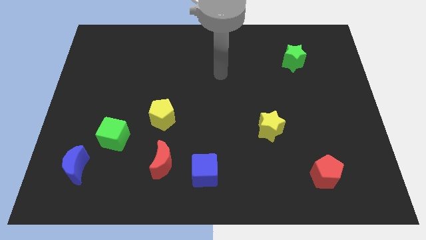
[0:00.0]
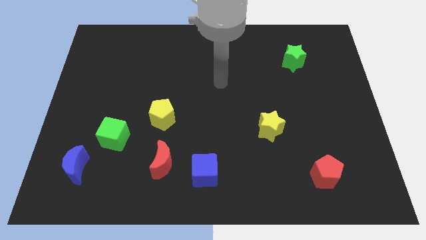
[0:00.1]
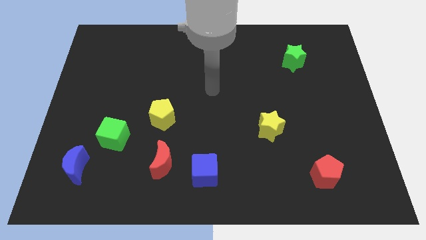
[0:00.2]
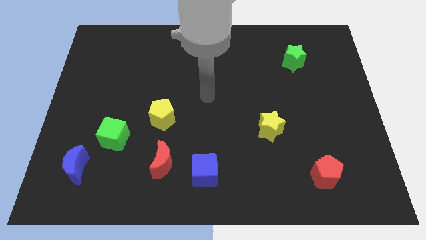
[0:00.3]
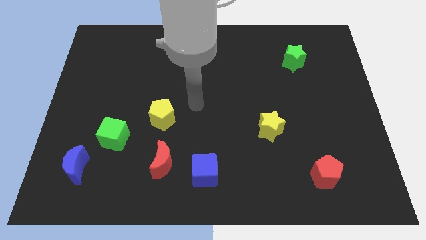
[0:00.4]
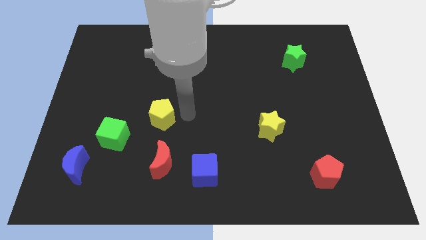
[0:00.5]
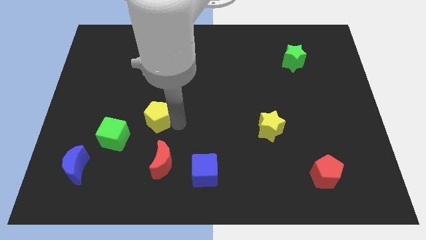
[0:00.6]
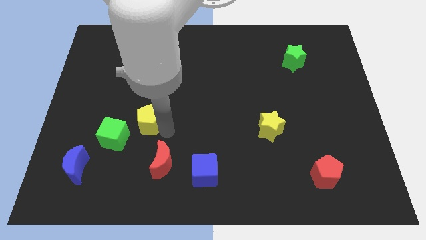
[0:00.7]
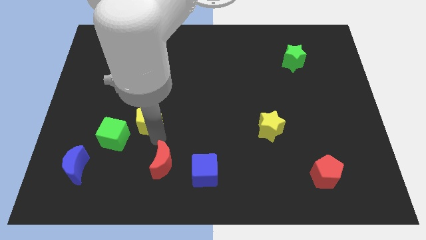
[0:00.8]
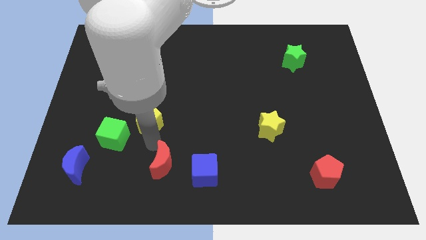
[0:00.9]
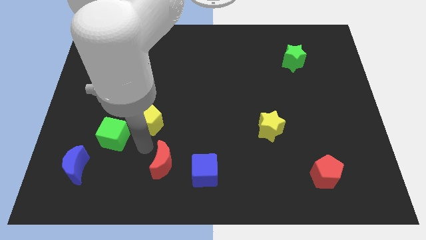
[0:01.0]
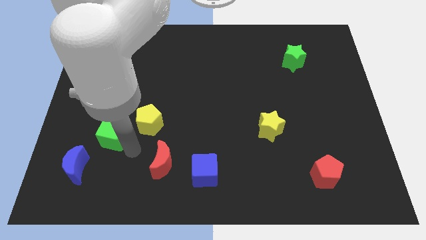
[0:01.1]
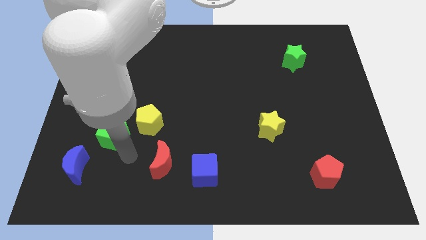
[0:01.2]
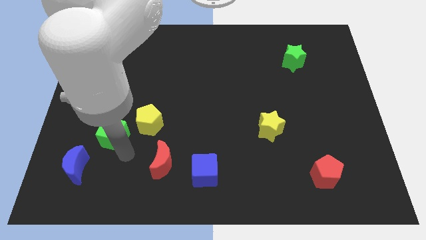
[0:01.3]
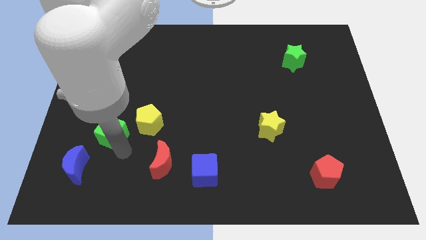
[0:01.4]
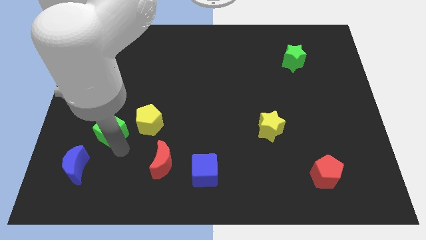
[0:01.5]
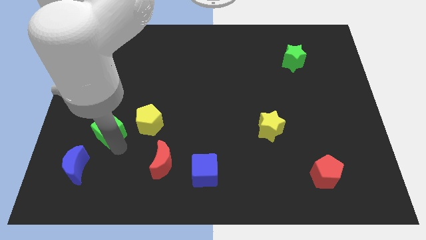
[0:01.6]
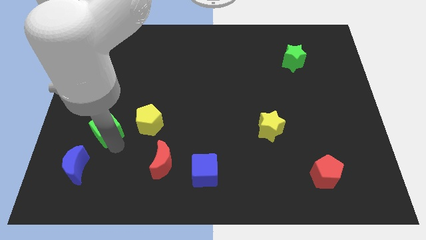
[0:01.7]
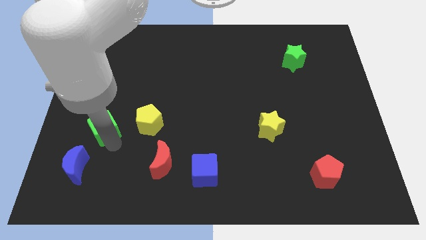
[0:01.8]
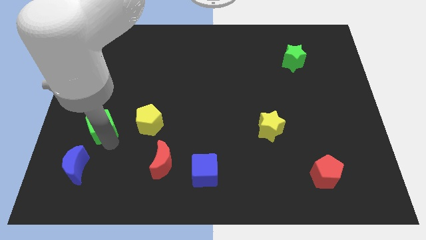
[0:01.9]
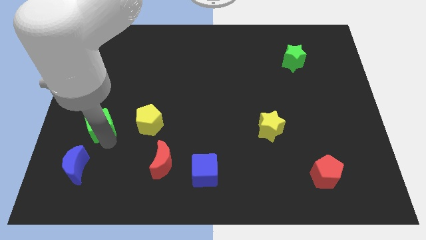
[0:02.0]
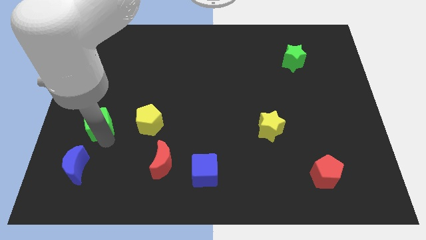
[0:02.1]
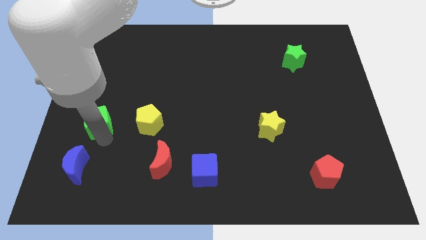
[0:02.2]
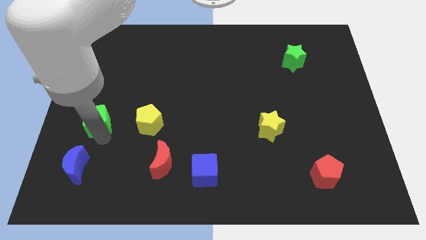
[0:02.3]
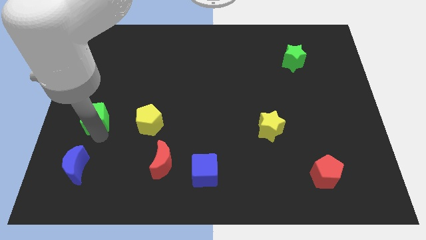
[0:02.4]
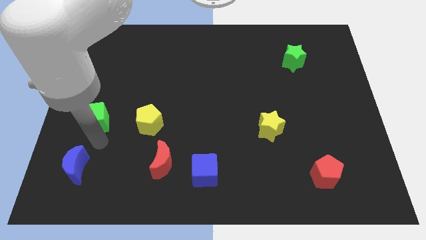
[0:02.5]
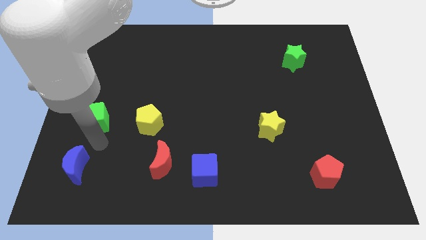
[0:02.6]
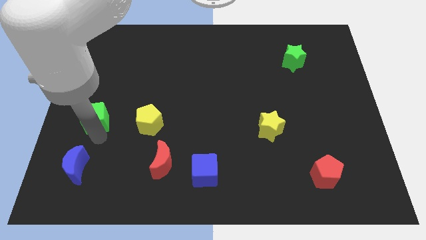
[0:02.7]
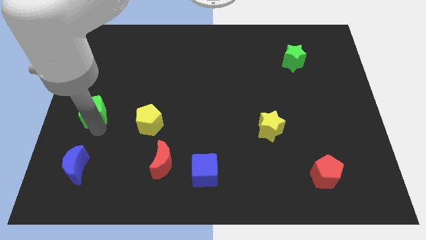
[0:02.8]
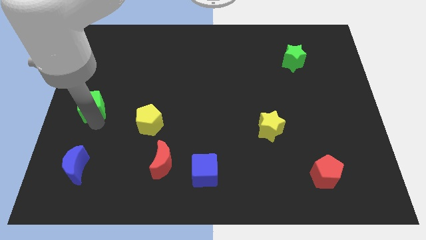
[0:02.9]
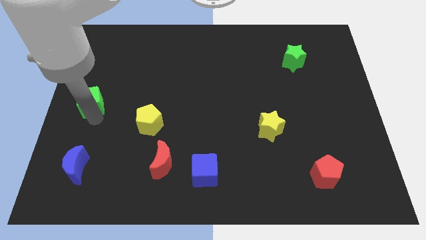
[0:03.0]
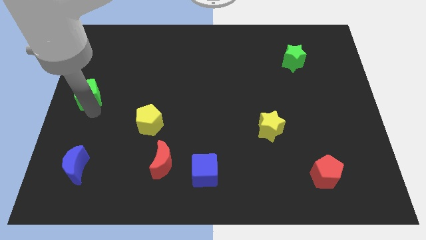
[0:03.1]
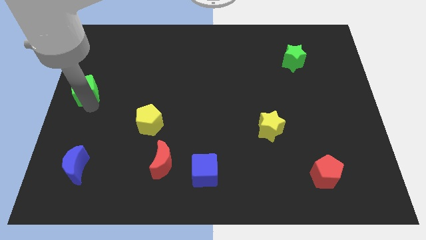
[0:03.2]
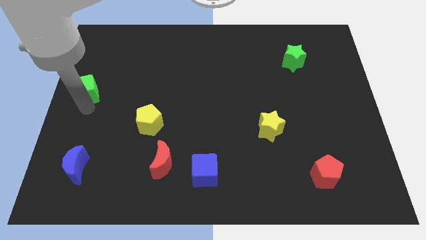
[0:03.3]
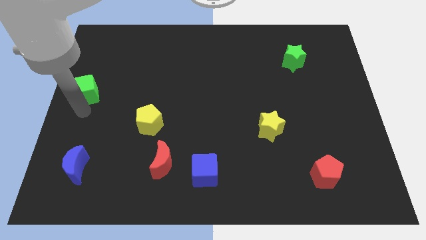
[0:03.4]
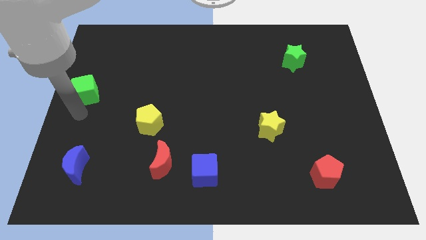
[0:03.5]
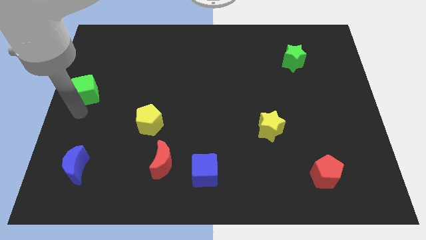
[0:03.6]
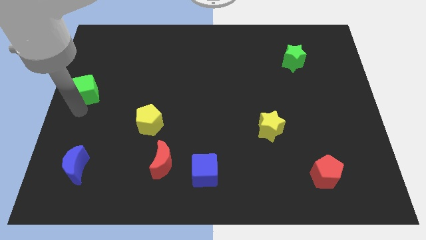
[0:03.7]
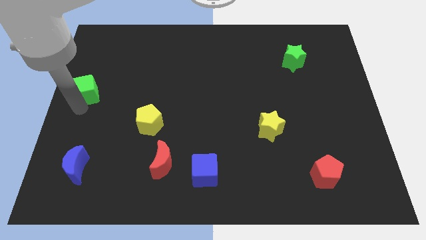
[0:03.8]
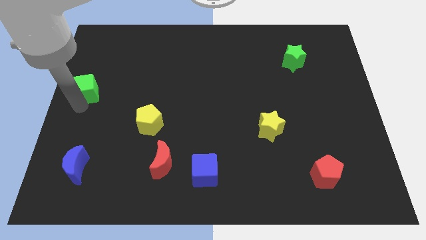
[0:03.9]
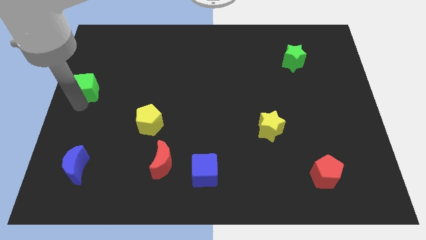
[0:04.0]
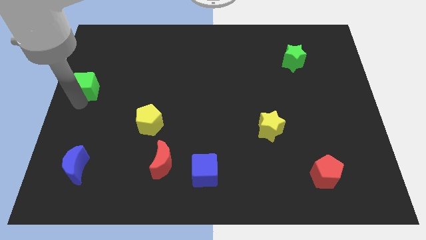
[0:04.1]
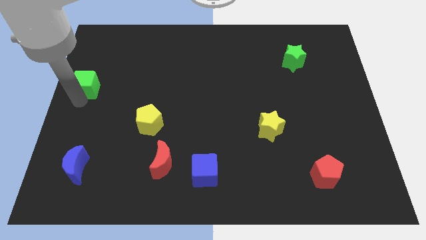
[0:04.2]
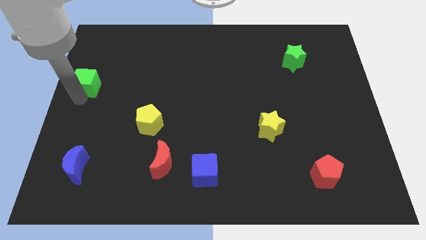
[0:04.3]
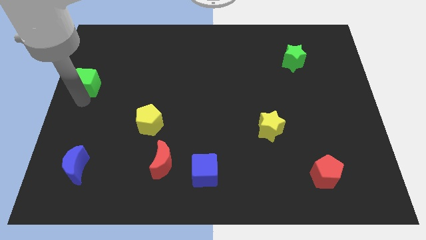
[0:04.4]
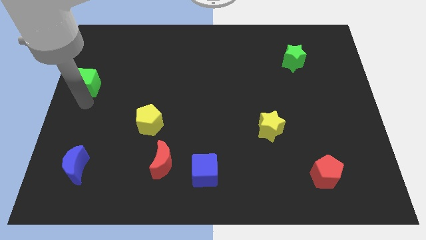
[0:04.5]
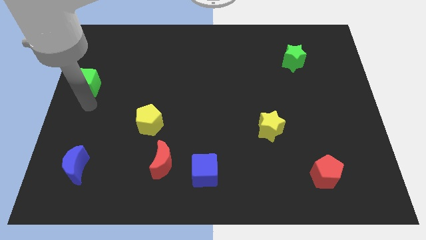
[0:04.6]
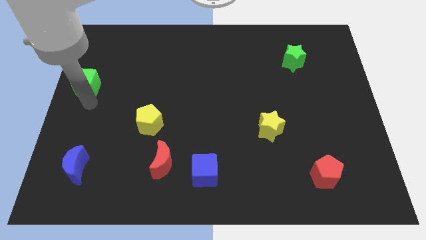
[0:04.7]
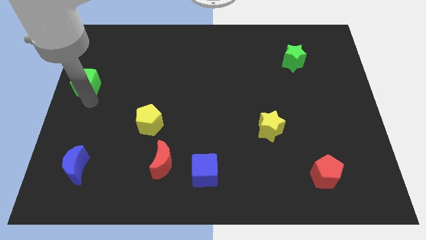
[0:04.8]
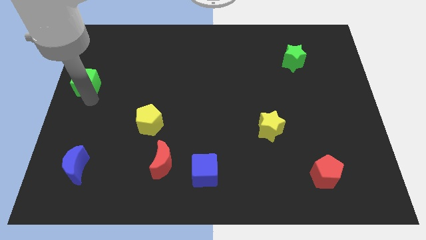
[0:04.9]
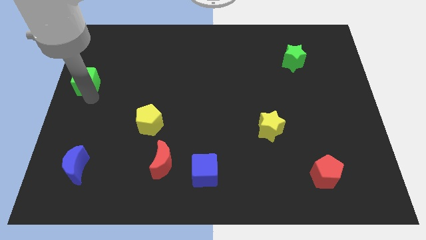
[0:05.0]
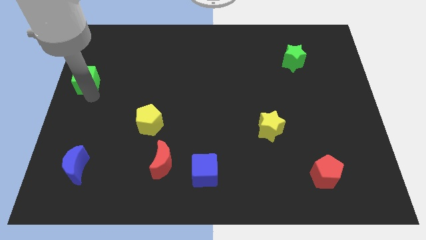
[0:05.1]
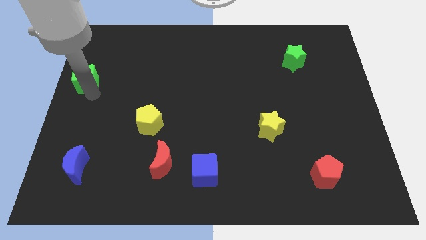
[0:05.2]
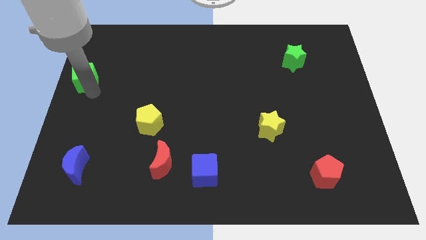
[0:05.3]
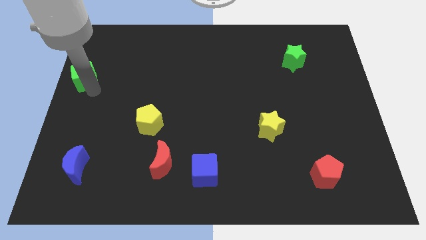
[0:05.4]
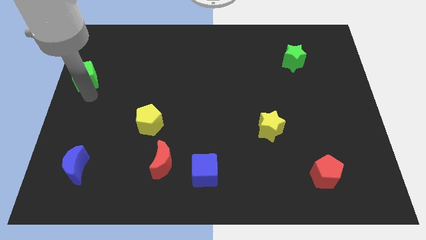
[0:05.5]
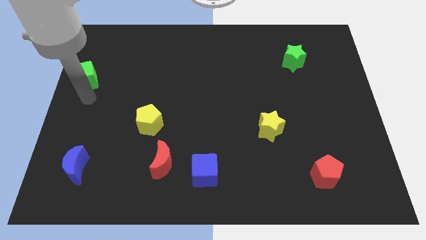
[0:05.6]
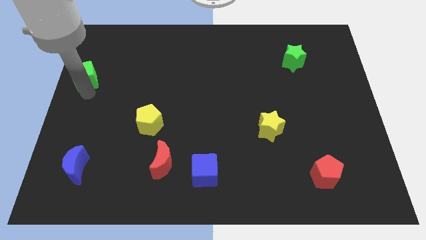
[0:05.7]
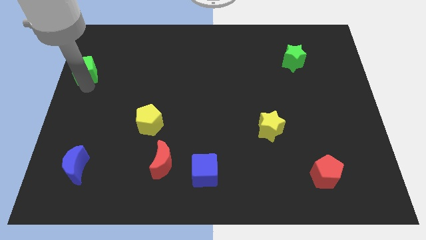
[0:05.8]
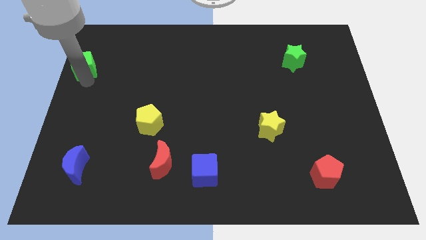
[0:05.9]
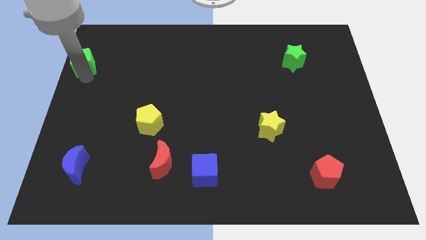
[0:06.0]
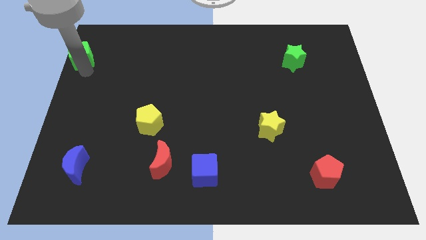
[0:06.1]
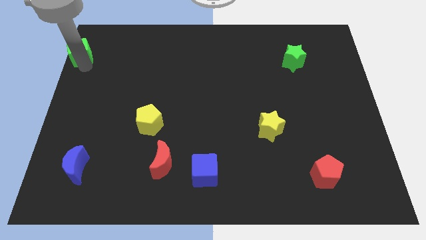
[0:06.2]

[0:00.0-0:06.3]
slide the green cube to the top left

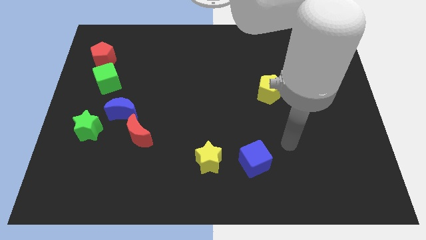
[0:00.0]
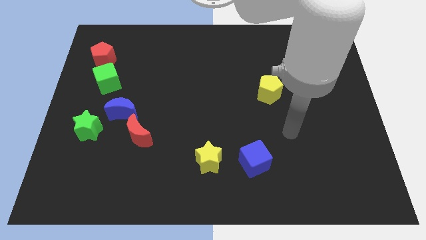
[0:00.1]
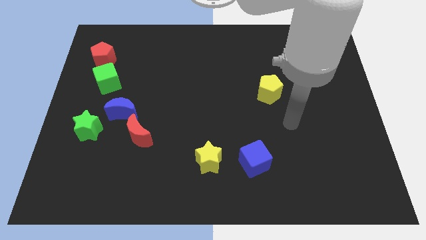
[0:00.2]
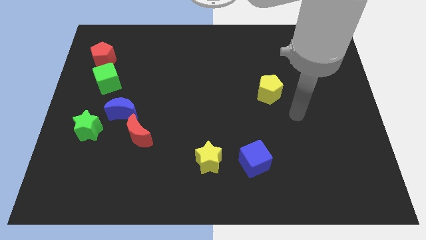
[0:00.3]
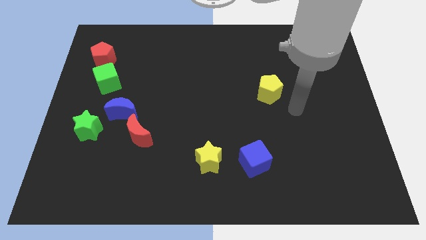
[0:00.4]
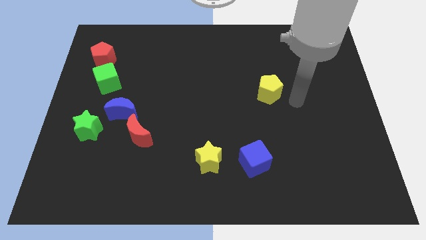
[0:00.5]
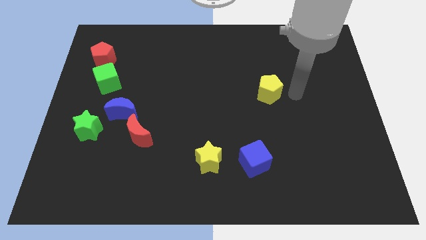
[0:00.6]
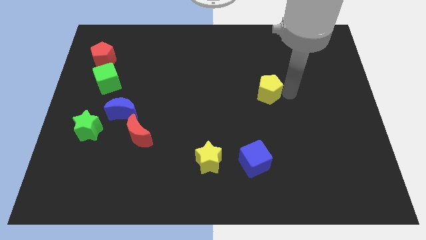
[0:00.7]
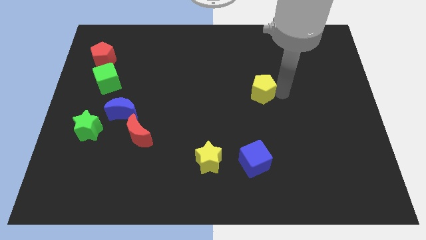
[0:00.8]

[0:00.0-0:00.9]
push the yellow pentagon to the center of the board
